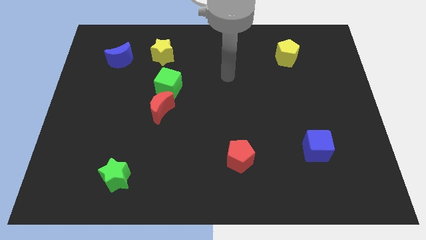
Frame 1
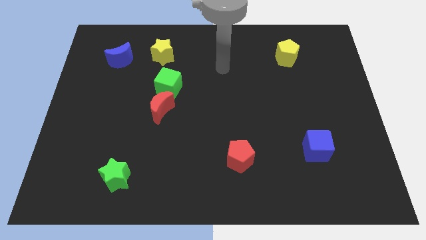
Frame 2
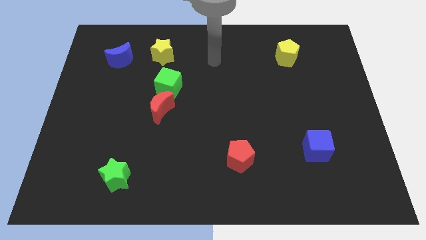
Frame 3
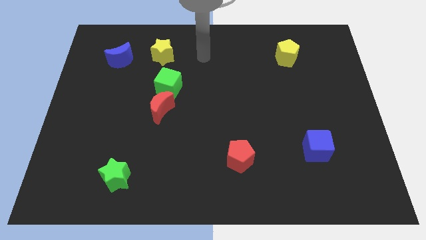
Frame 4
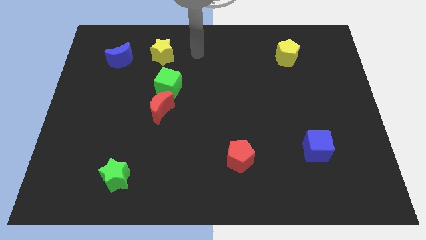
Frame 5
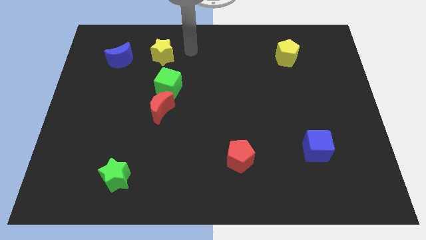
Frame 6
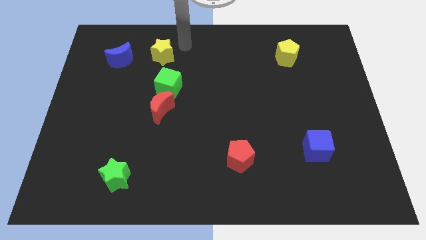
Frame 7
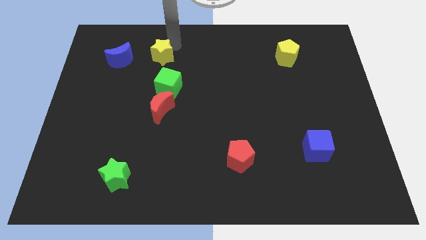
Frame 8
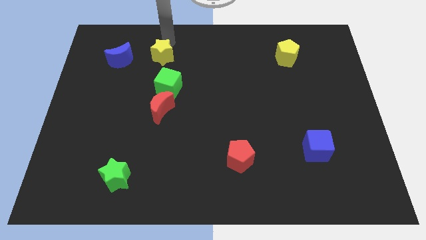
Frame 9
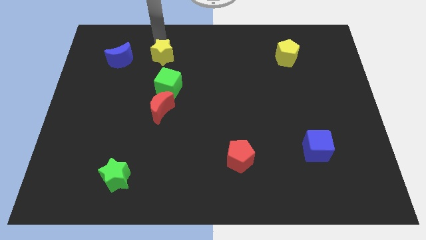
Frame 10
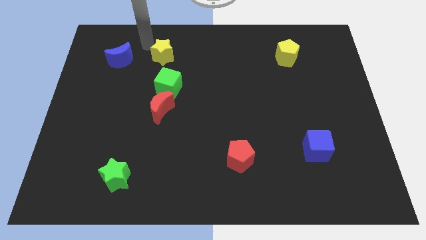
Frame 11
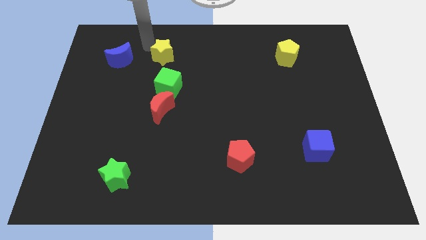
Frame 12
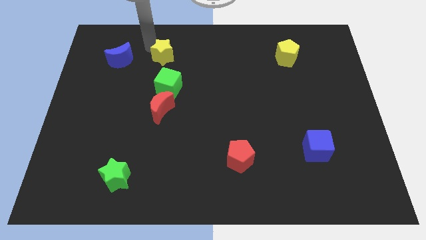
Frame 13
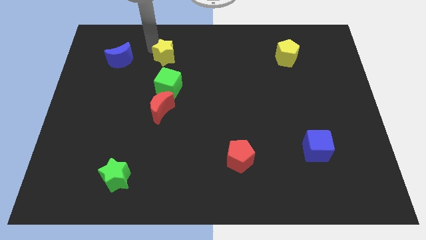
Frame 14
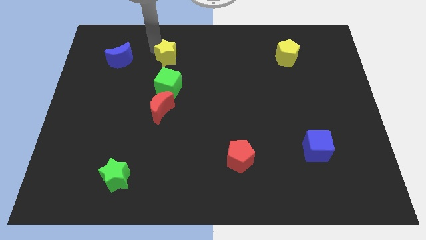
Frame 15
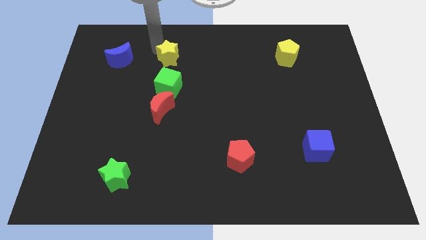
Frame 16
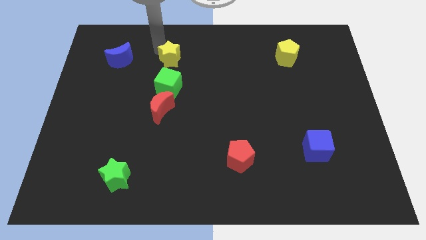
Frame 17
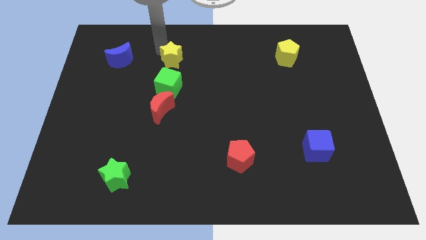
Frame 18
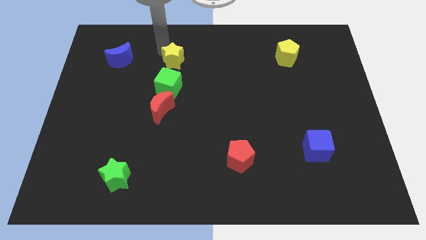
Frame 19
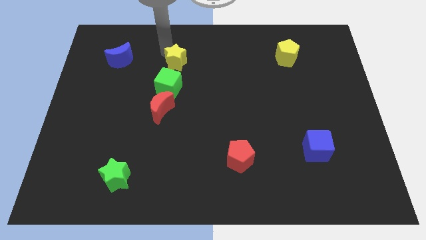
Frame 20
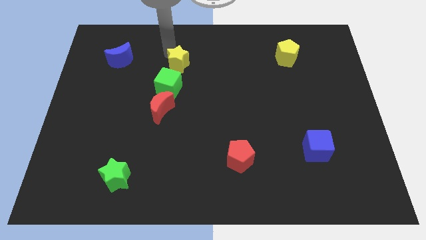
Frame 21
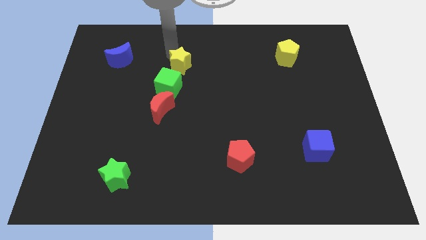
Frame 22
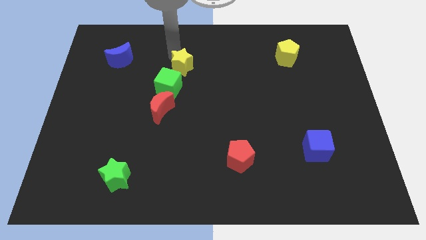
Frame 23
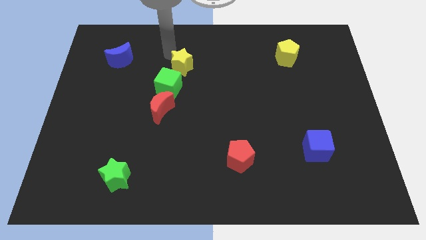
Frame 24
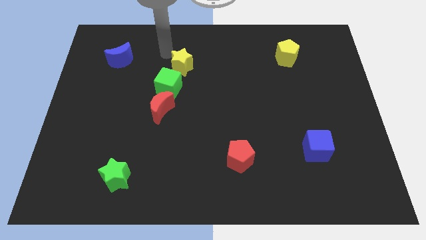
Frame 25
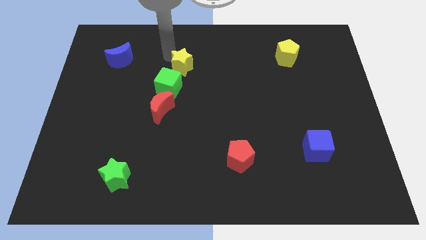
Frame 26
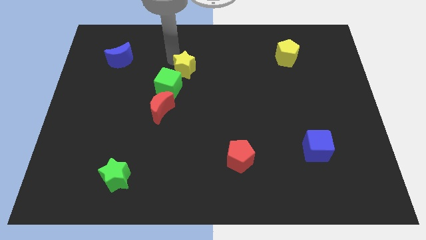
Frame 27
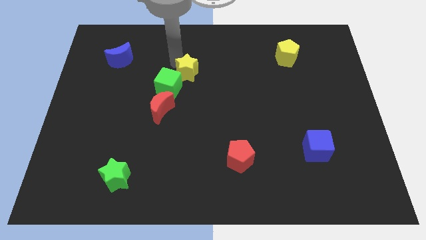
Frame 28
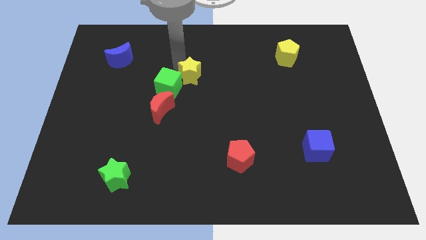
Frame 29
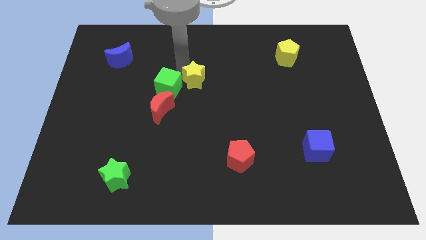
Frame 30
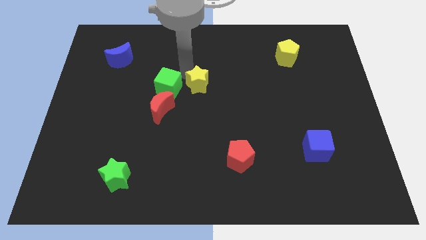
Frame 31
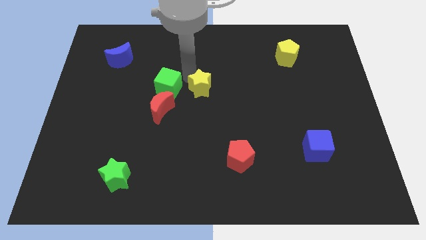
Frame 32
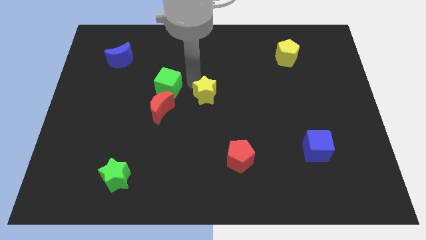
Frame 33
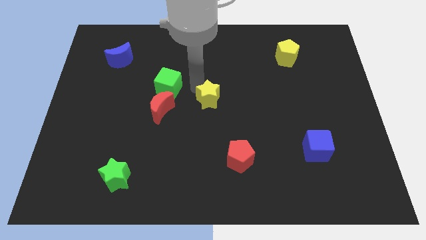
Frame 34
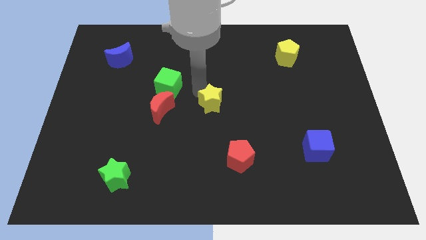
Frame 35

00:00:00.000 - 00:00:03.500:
slide the yellow star down and to the right

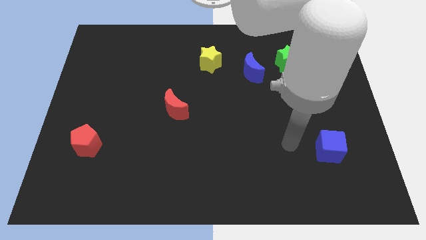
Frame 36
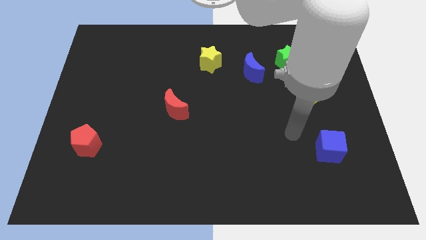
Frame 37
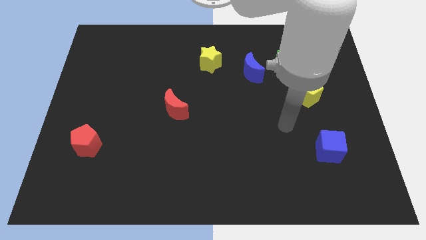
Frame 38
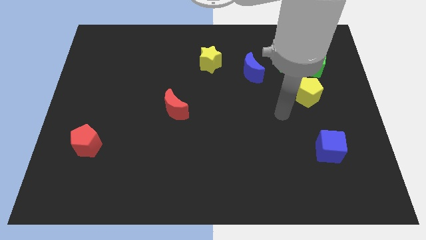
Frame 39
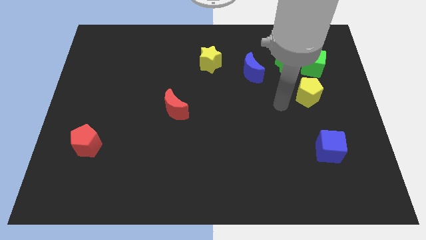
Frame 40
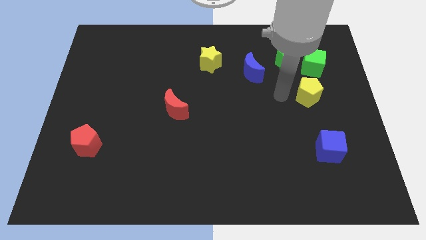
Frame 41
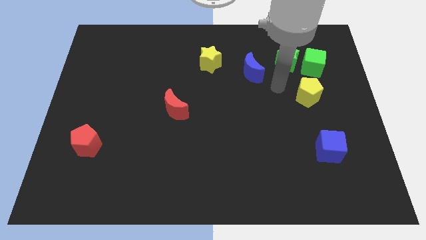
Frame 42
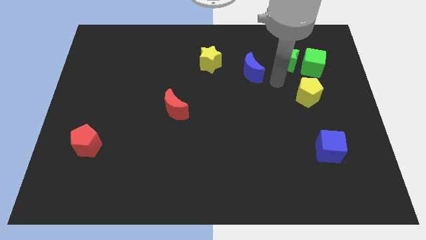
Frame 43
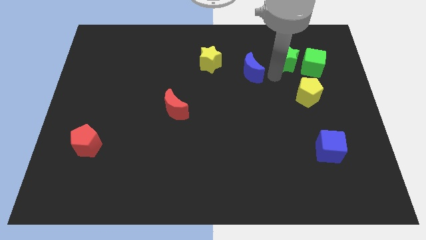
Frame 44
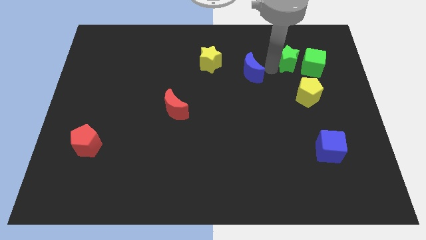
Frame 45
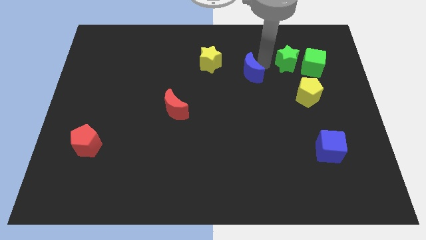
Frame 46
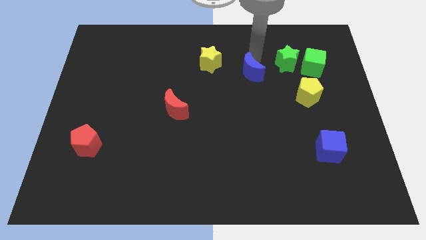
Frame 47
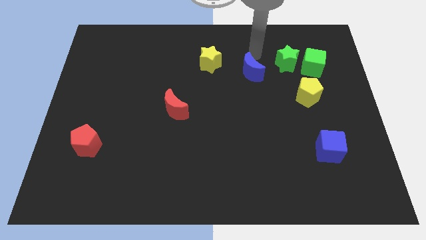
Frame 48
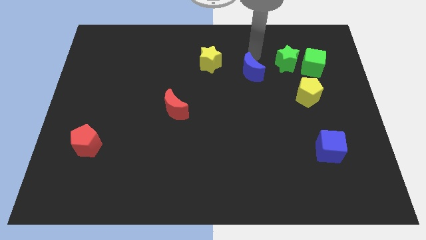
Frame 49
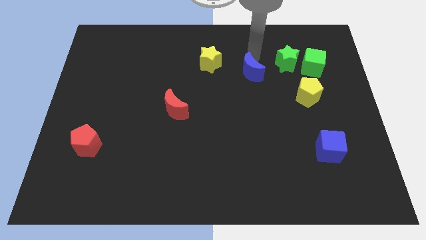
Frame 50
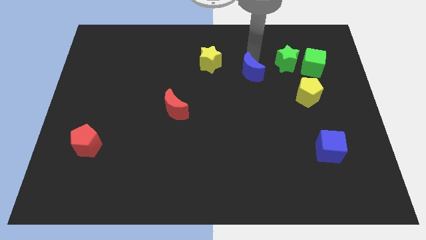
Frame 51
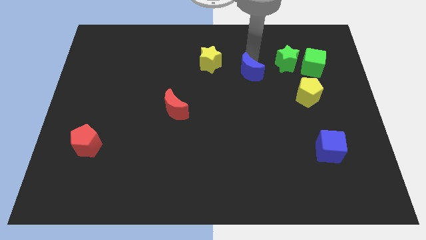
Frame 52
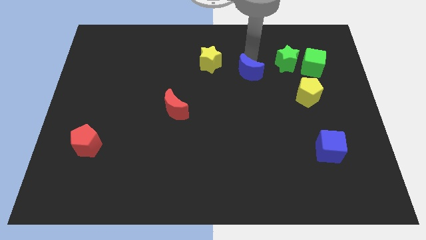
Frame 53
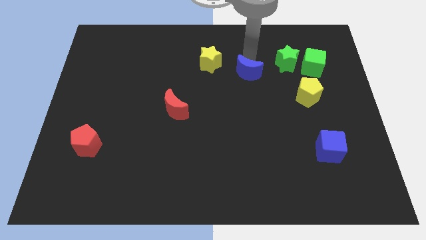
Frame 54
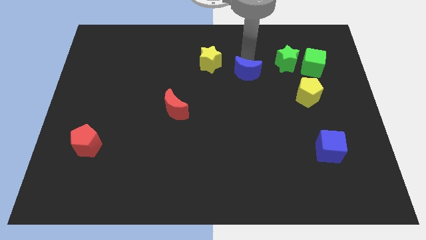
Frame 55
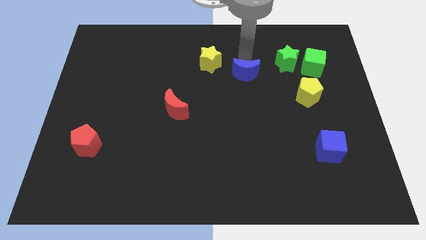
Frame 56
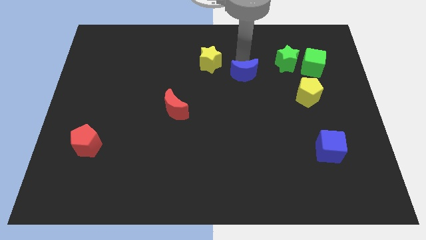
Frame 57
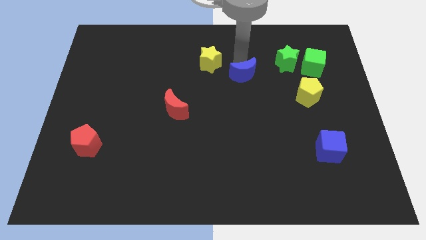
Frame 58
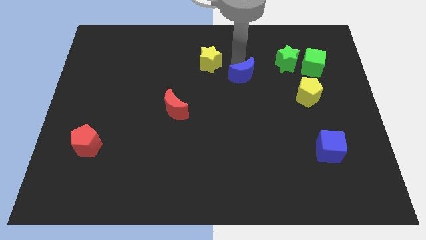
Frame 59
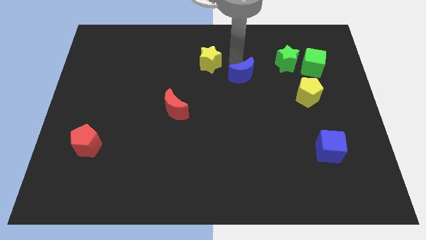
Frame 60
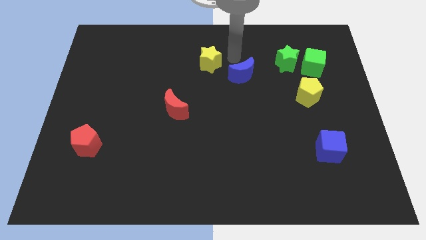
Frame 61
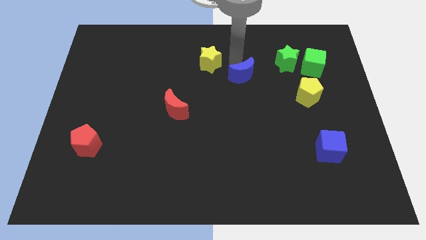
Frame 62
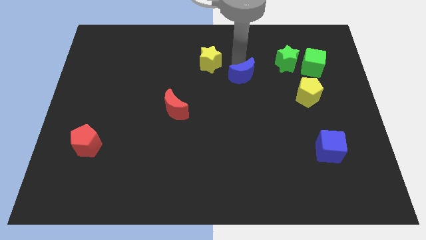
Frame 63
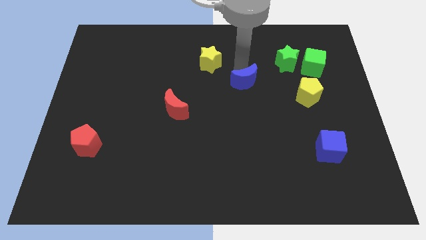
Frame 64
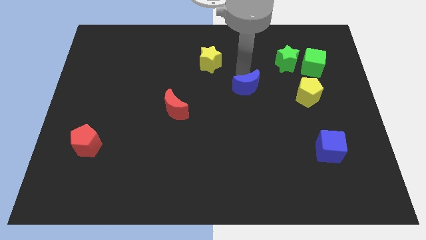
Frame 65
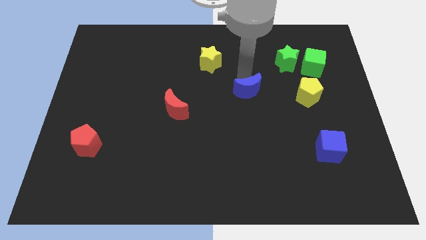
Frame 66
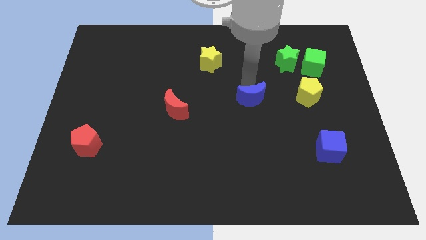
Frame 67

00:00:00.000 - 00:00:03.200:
push the blue moon a little bit down

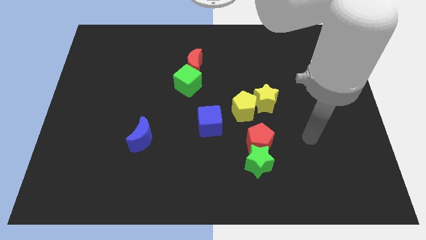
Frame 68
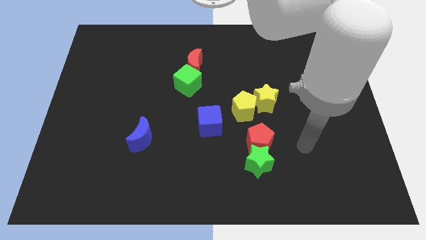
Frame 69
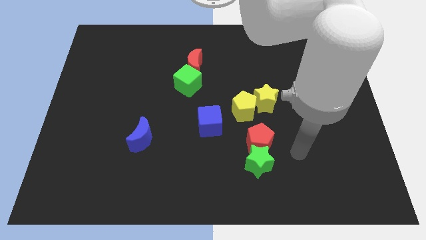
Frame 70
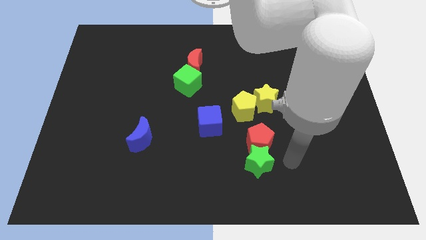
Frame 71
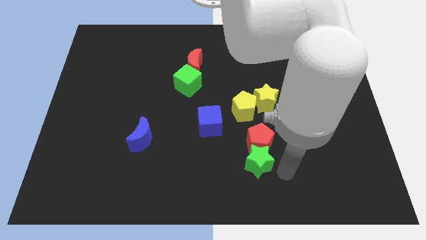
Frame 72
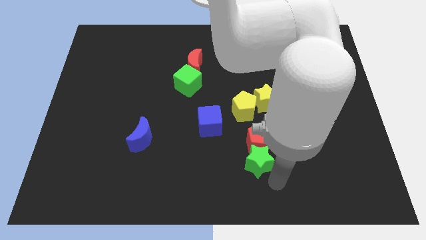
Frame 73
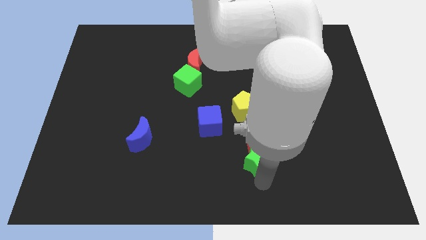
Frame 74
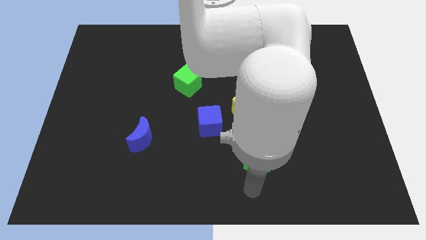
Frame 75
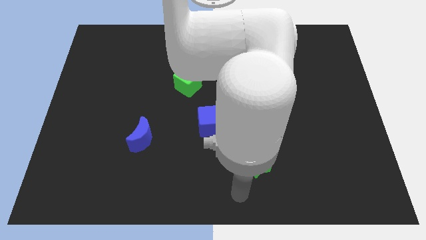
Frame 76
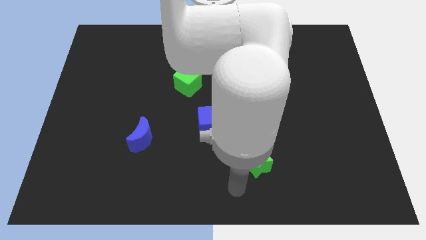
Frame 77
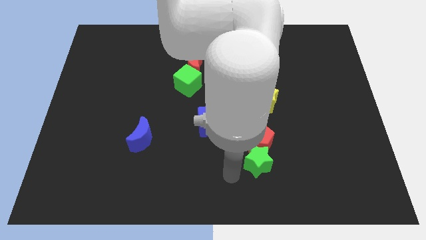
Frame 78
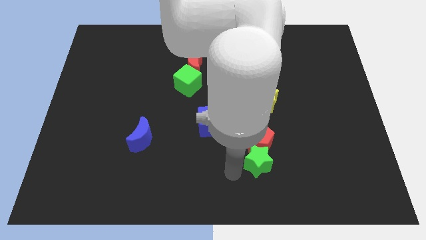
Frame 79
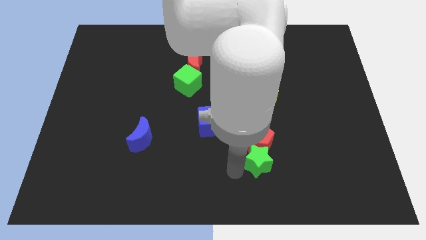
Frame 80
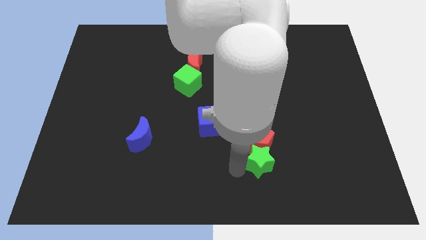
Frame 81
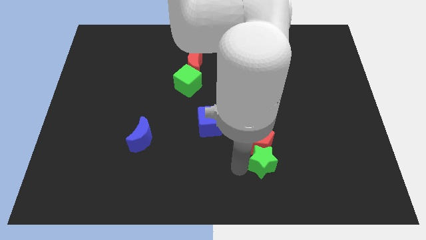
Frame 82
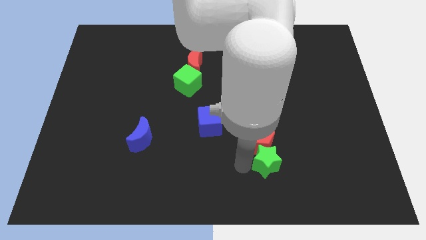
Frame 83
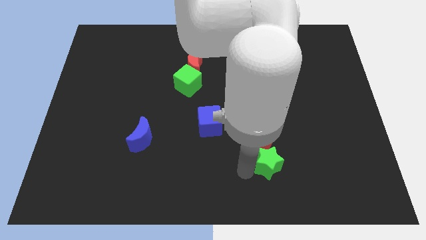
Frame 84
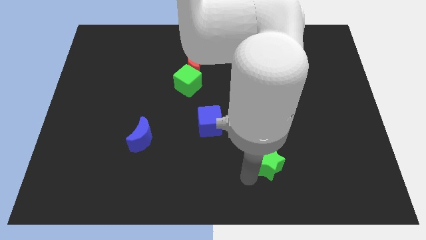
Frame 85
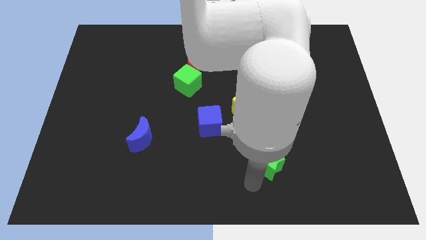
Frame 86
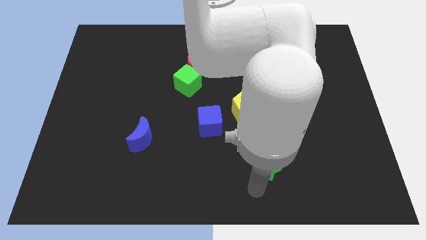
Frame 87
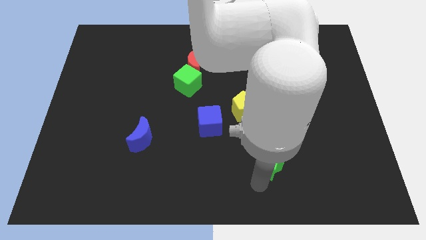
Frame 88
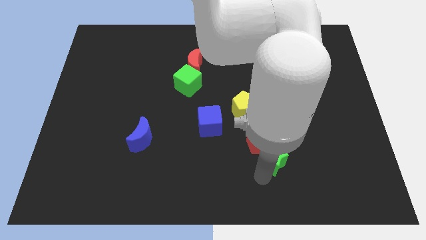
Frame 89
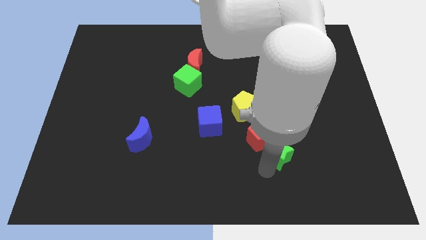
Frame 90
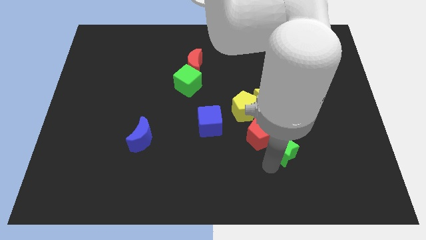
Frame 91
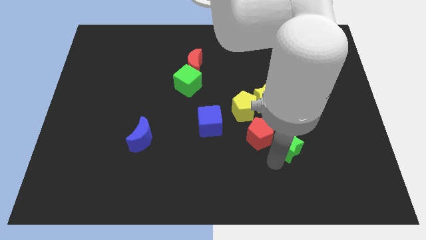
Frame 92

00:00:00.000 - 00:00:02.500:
slightly push the green star upwards and to the right diagonally
